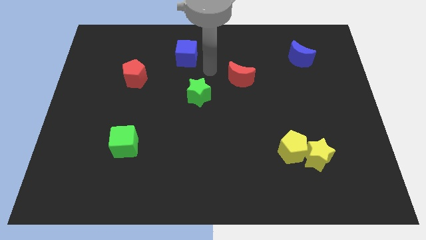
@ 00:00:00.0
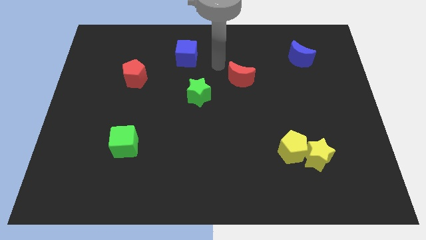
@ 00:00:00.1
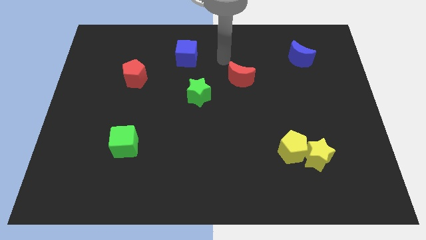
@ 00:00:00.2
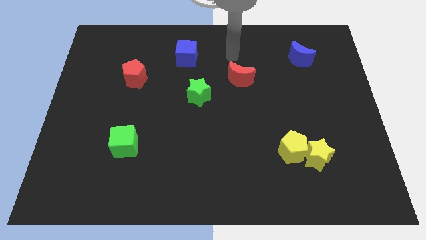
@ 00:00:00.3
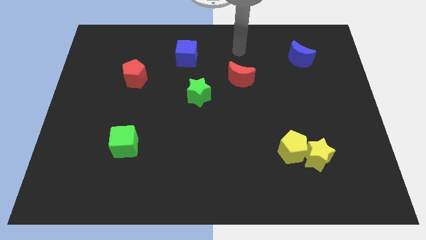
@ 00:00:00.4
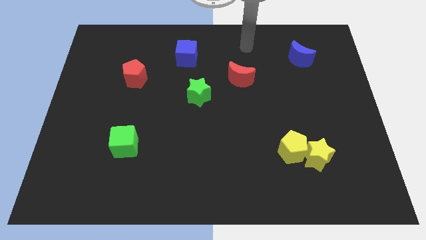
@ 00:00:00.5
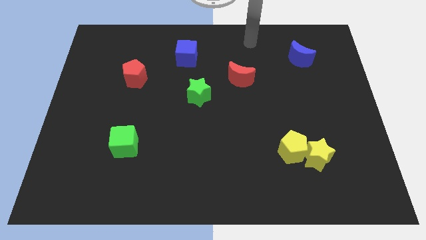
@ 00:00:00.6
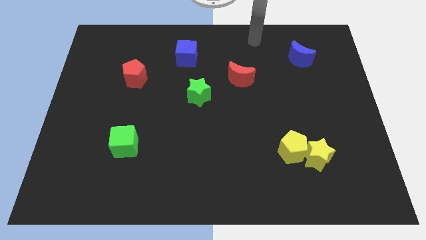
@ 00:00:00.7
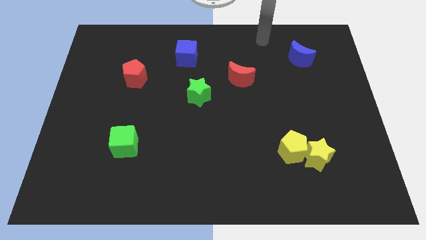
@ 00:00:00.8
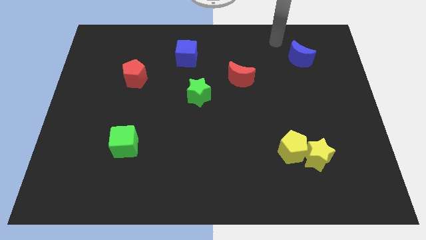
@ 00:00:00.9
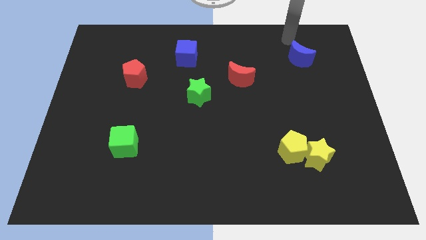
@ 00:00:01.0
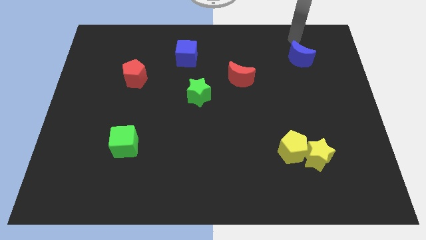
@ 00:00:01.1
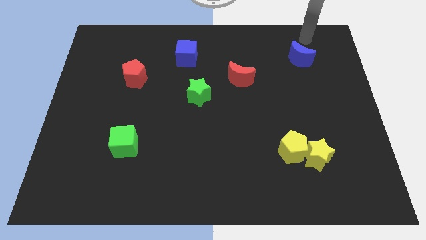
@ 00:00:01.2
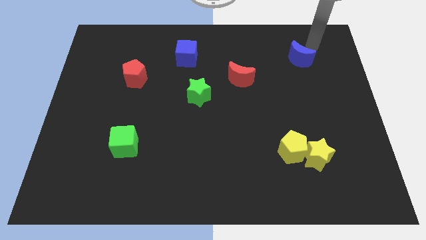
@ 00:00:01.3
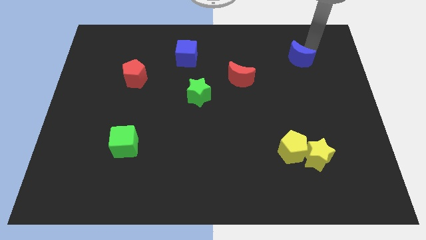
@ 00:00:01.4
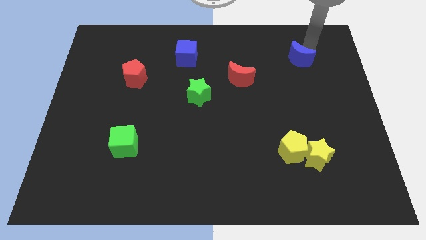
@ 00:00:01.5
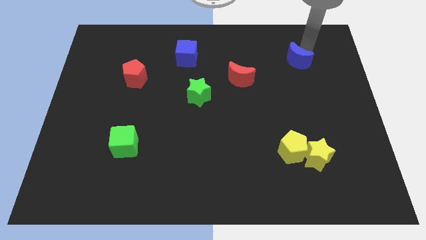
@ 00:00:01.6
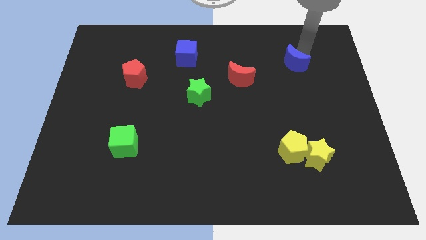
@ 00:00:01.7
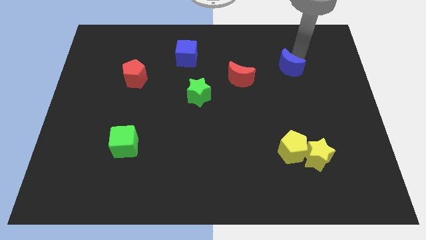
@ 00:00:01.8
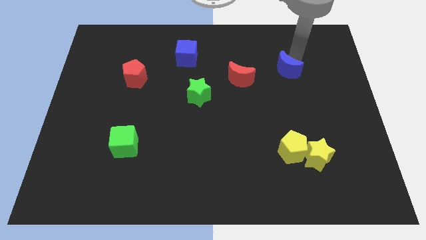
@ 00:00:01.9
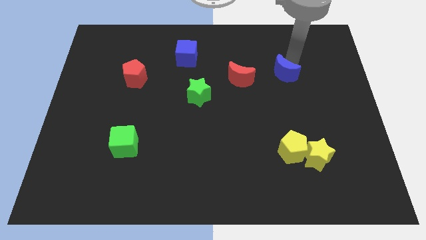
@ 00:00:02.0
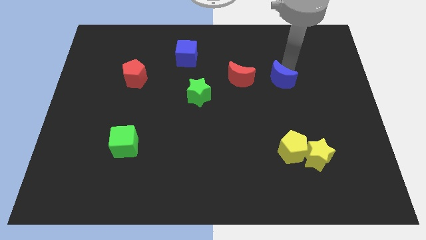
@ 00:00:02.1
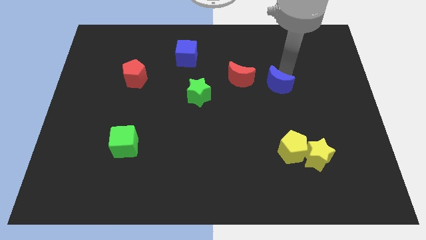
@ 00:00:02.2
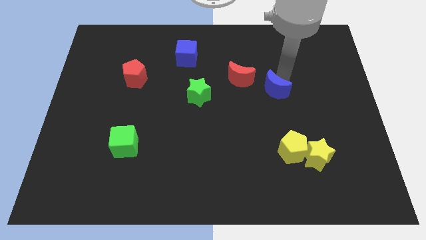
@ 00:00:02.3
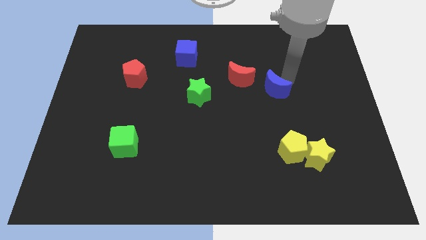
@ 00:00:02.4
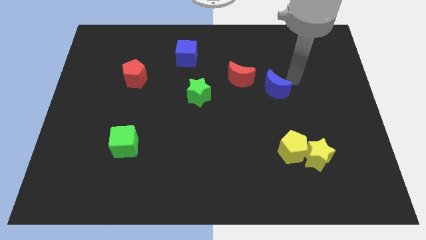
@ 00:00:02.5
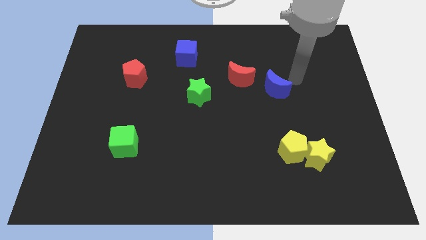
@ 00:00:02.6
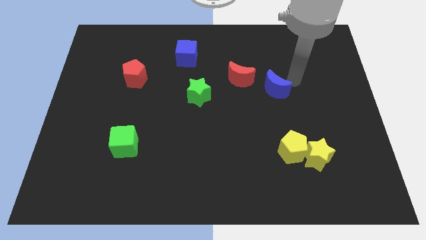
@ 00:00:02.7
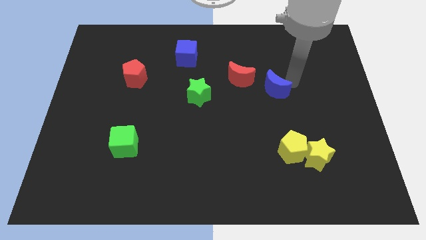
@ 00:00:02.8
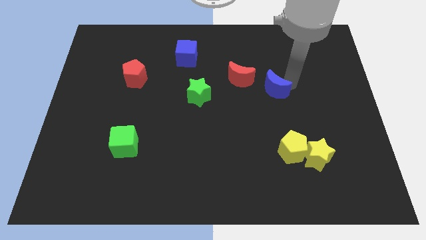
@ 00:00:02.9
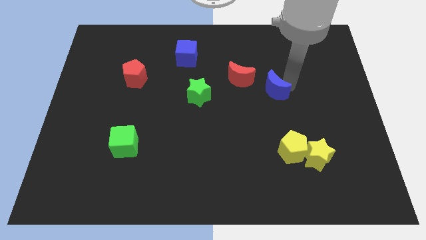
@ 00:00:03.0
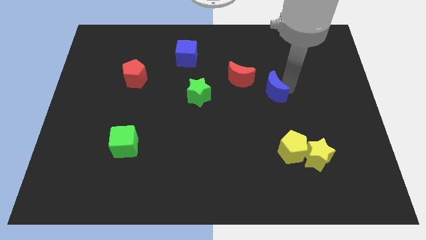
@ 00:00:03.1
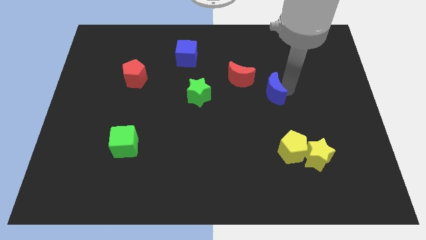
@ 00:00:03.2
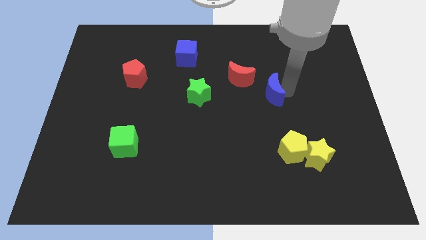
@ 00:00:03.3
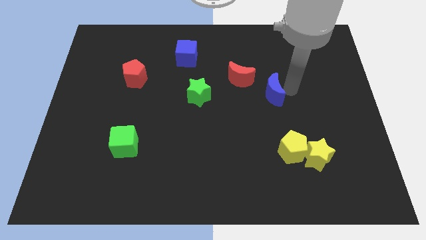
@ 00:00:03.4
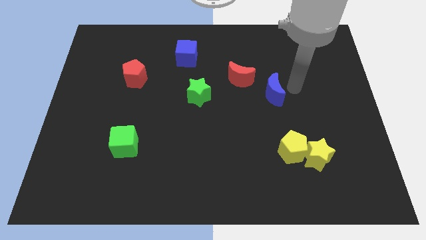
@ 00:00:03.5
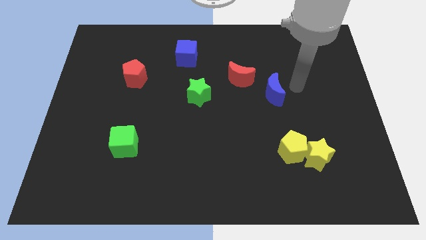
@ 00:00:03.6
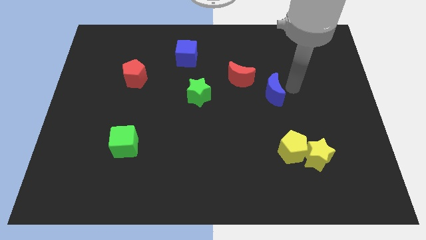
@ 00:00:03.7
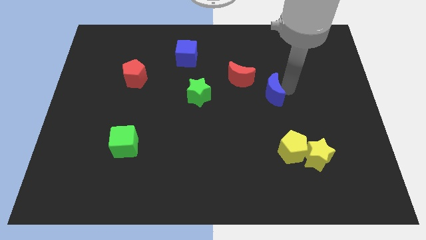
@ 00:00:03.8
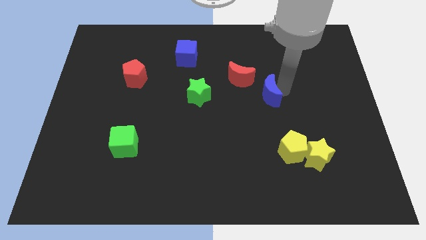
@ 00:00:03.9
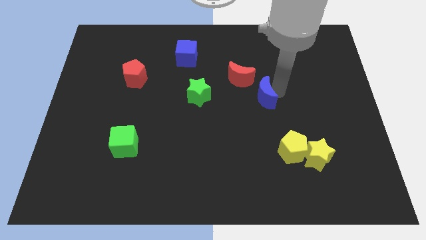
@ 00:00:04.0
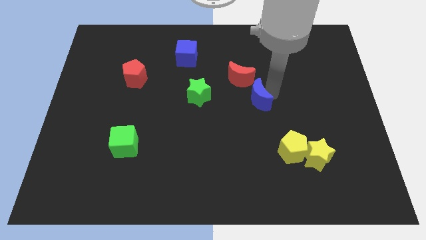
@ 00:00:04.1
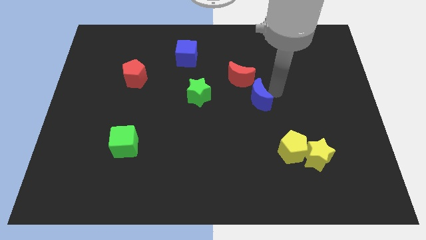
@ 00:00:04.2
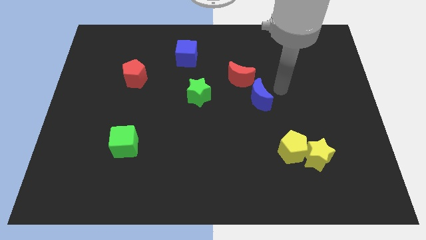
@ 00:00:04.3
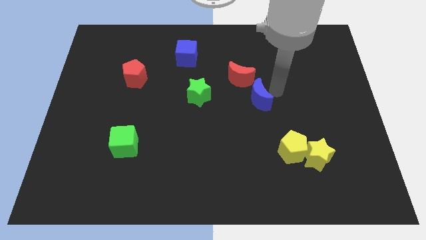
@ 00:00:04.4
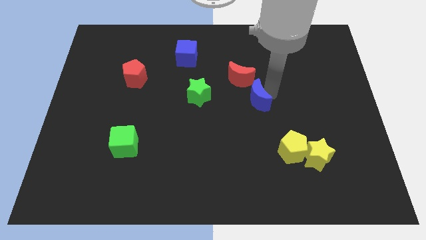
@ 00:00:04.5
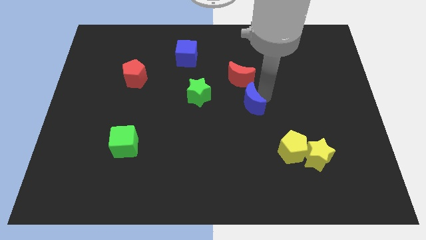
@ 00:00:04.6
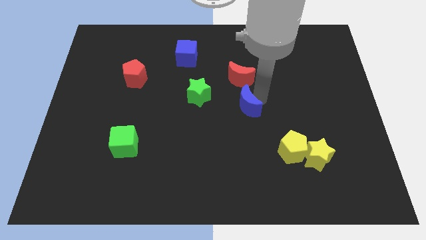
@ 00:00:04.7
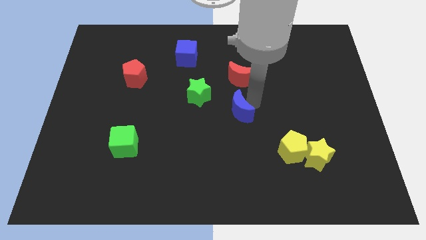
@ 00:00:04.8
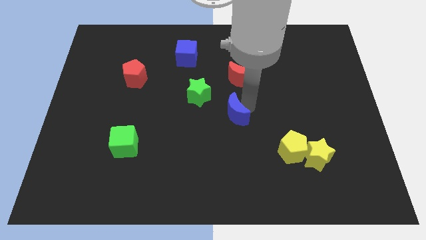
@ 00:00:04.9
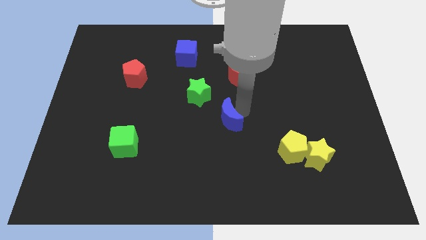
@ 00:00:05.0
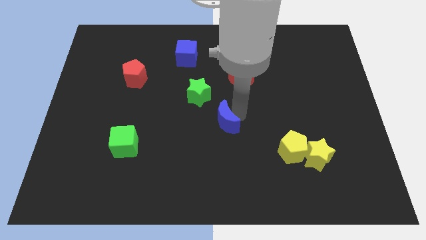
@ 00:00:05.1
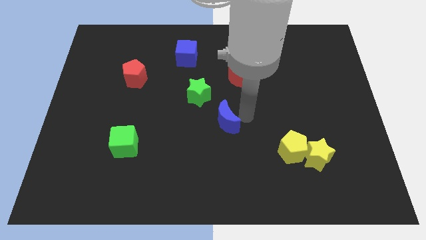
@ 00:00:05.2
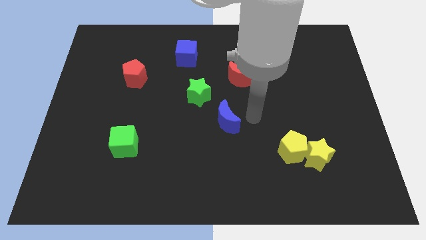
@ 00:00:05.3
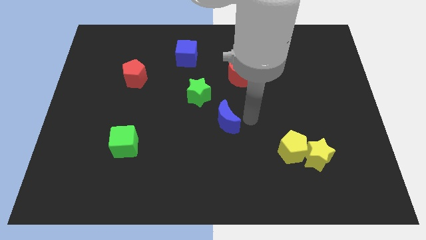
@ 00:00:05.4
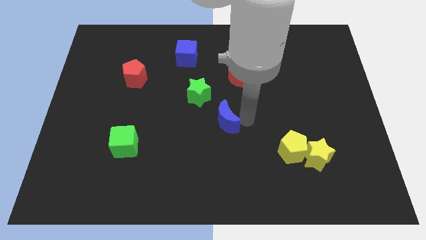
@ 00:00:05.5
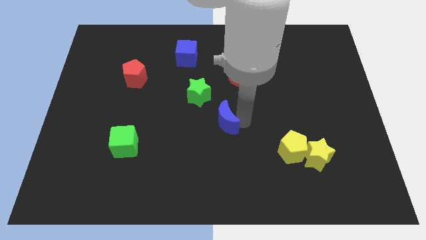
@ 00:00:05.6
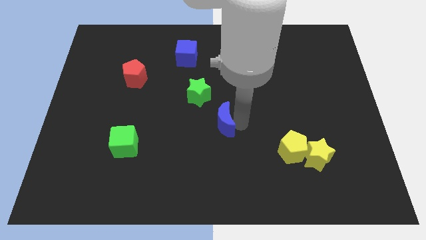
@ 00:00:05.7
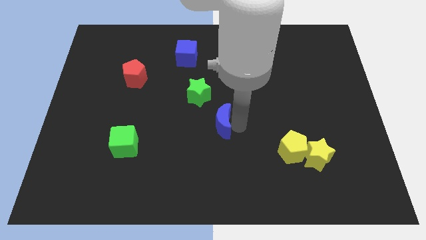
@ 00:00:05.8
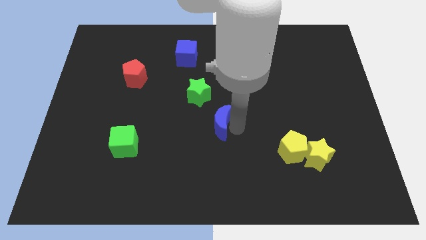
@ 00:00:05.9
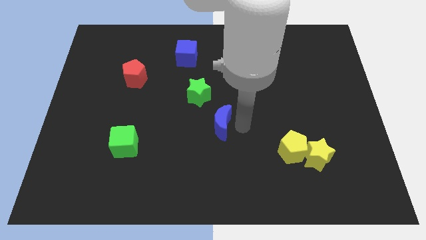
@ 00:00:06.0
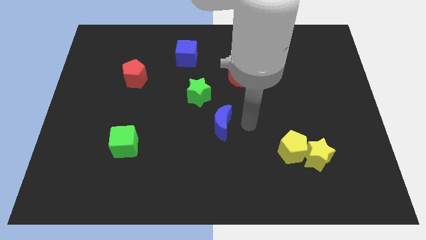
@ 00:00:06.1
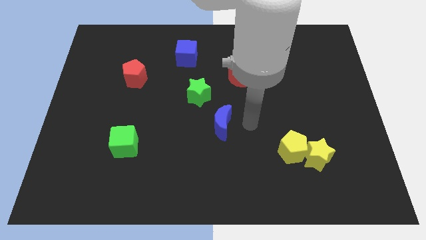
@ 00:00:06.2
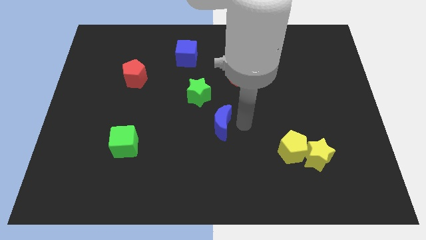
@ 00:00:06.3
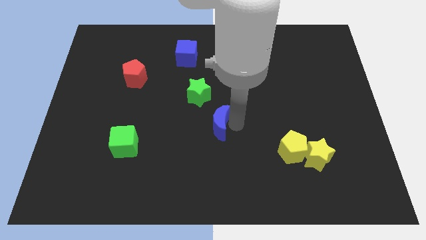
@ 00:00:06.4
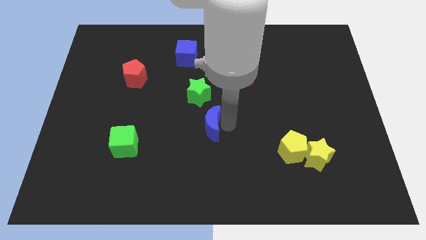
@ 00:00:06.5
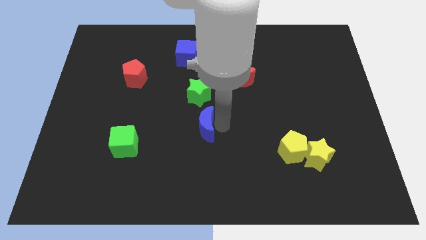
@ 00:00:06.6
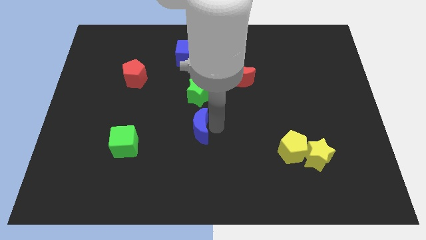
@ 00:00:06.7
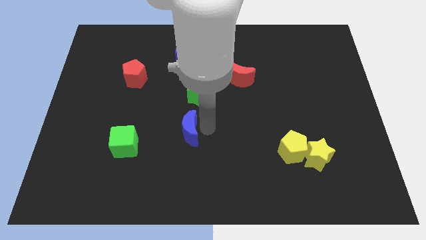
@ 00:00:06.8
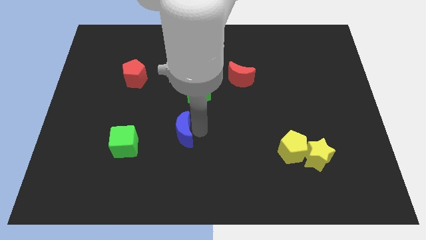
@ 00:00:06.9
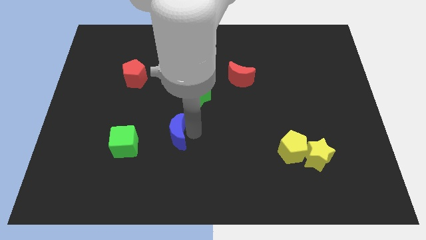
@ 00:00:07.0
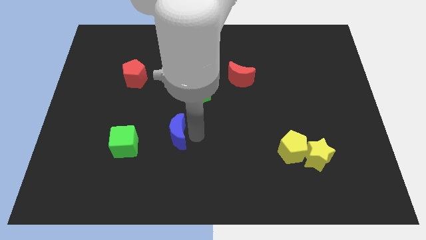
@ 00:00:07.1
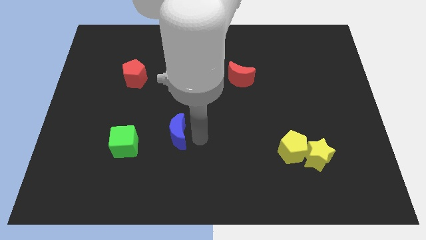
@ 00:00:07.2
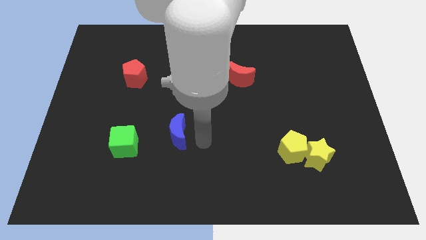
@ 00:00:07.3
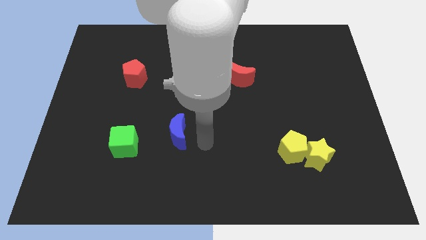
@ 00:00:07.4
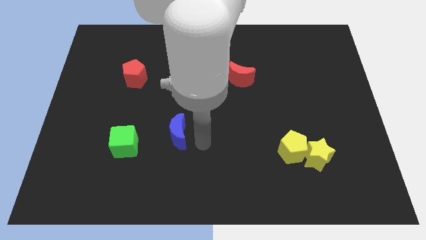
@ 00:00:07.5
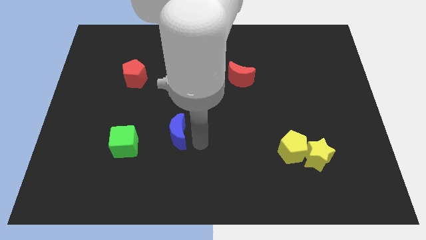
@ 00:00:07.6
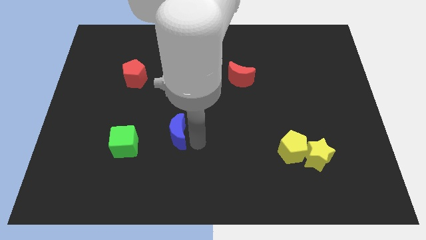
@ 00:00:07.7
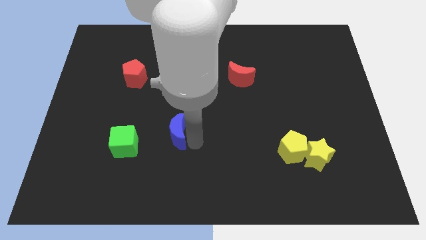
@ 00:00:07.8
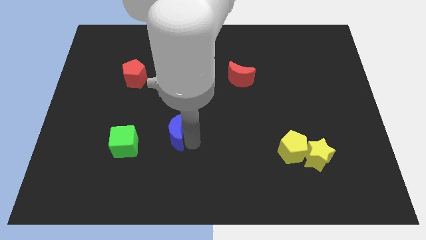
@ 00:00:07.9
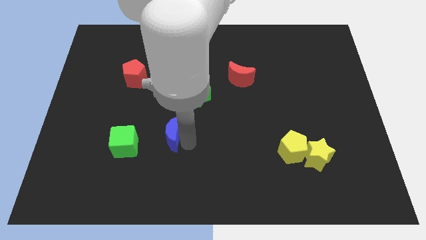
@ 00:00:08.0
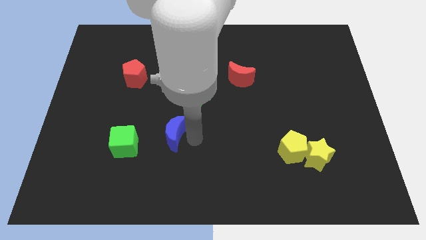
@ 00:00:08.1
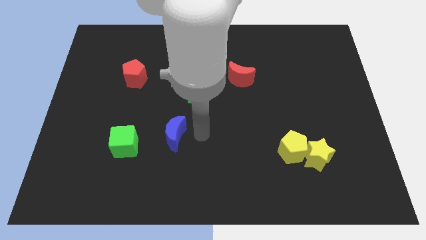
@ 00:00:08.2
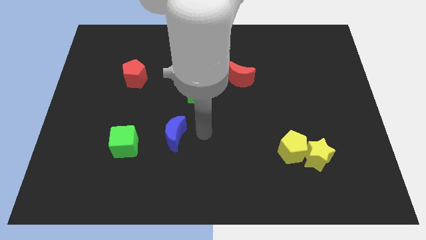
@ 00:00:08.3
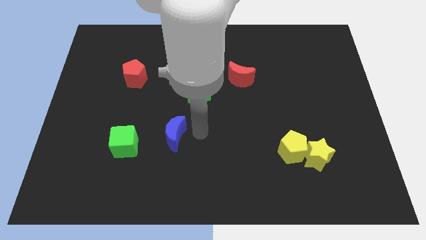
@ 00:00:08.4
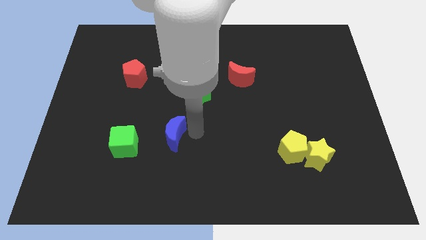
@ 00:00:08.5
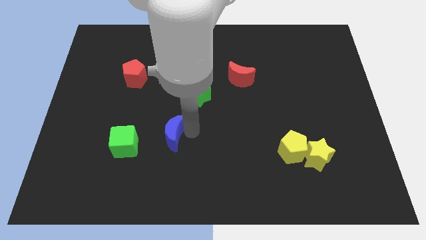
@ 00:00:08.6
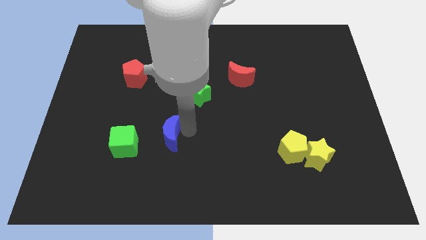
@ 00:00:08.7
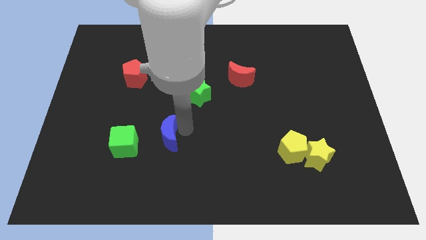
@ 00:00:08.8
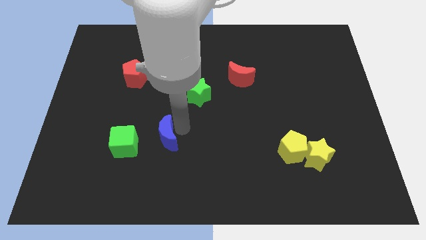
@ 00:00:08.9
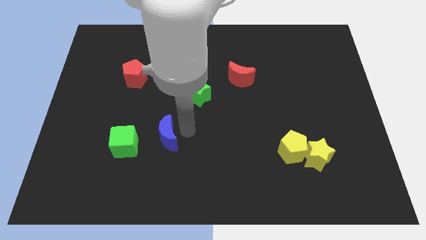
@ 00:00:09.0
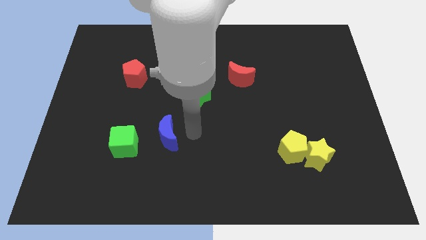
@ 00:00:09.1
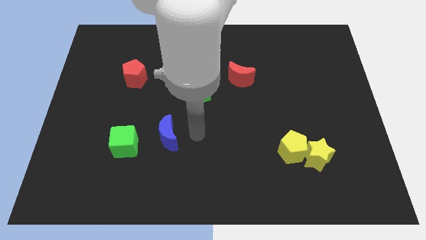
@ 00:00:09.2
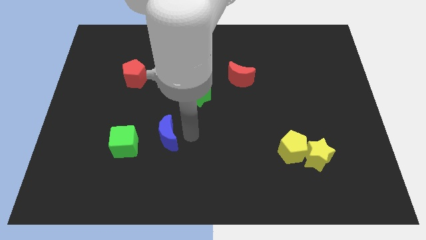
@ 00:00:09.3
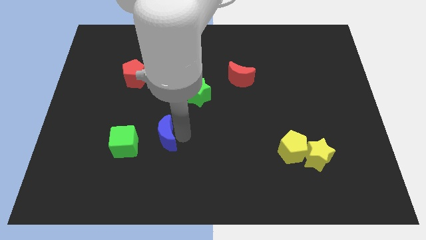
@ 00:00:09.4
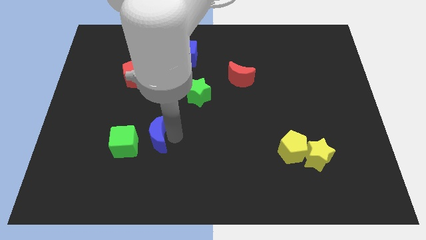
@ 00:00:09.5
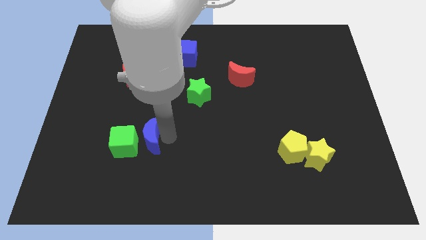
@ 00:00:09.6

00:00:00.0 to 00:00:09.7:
slide the blue moon next to the green cube